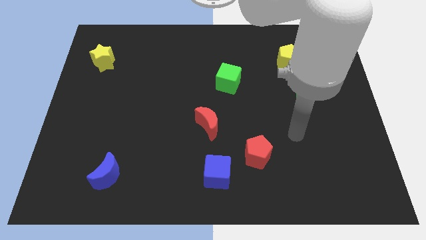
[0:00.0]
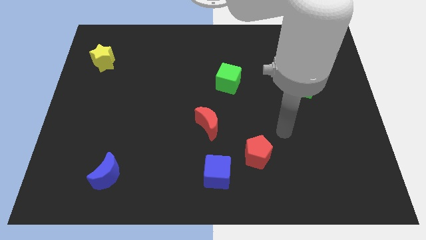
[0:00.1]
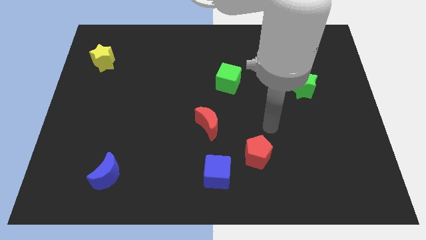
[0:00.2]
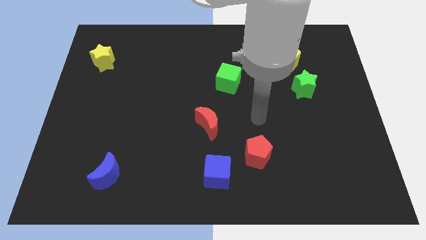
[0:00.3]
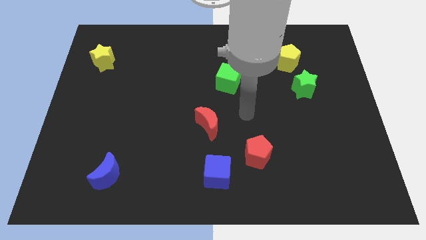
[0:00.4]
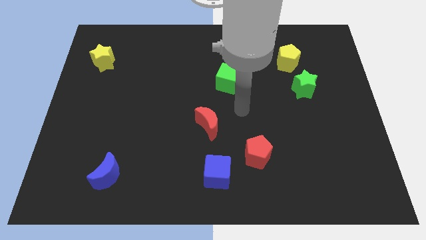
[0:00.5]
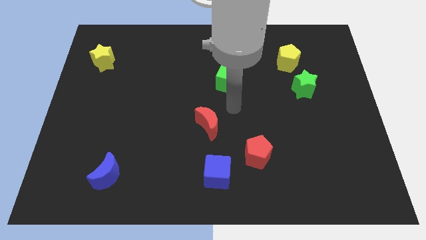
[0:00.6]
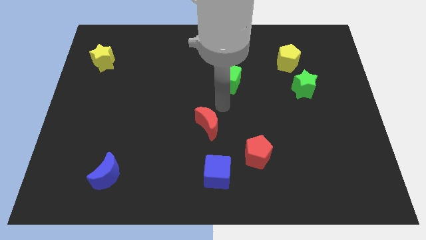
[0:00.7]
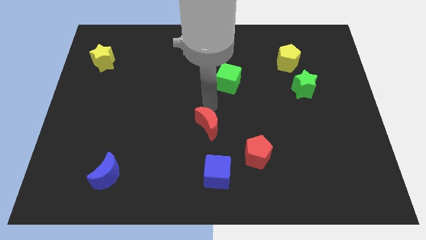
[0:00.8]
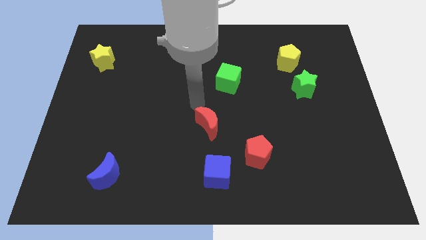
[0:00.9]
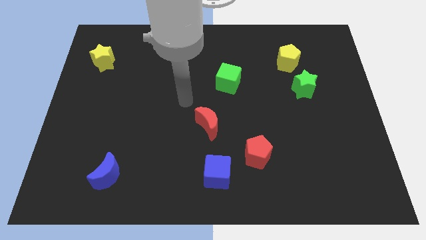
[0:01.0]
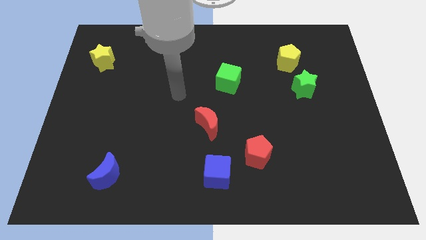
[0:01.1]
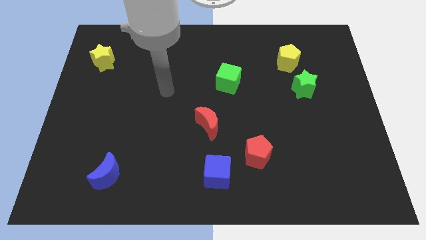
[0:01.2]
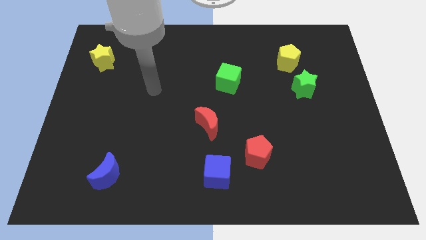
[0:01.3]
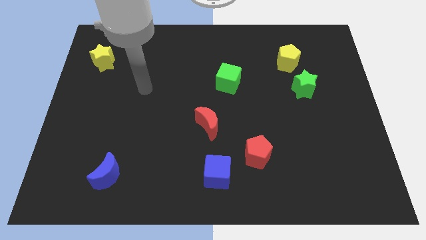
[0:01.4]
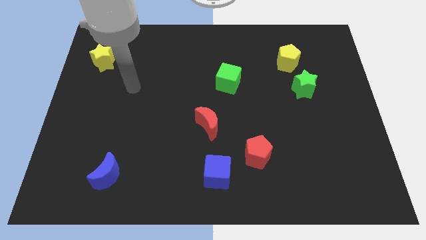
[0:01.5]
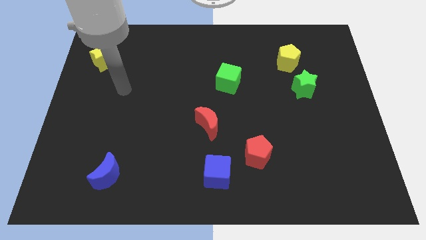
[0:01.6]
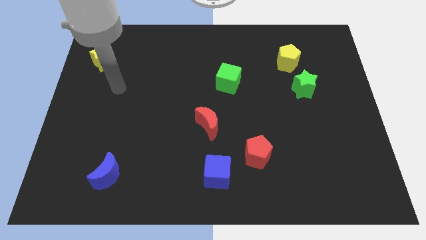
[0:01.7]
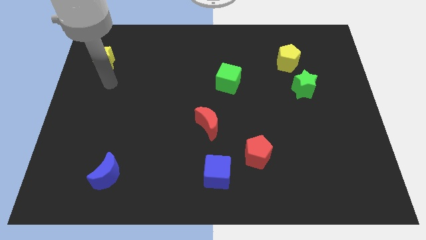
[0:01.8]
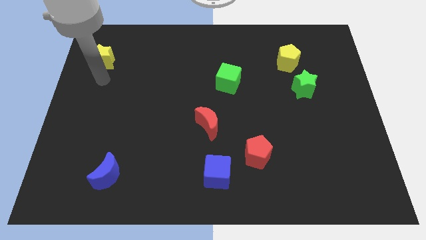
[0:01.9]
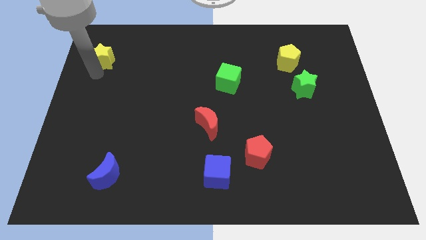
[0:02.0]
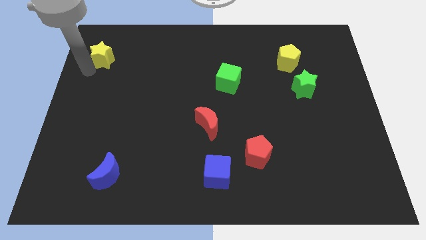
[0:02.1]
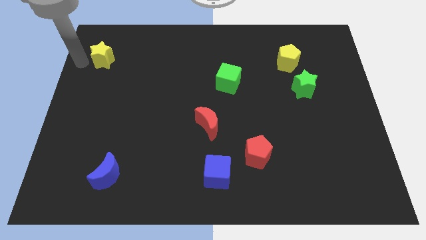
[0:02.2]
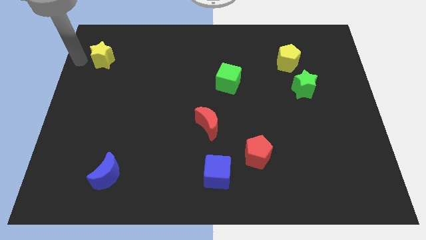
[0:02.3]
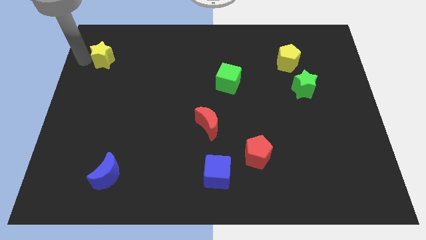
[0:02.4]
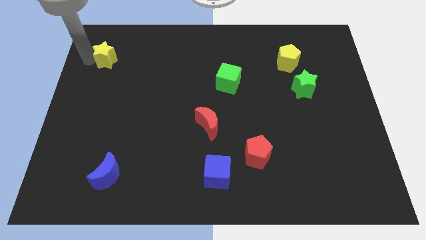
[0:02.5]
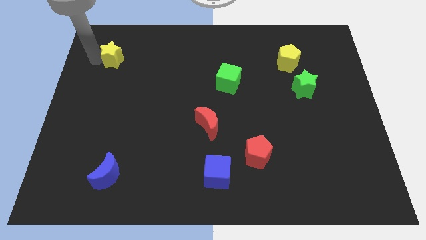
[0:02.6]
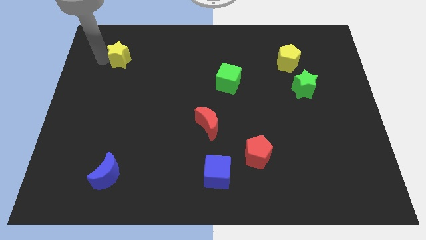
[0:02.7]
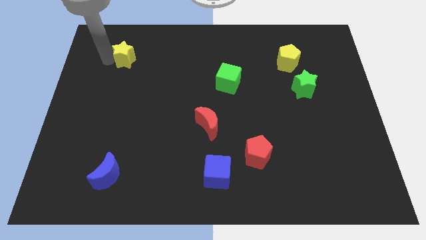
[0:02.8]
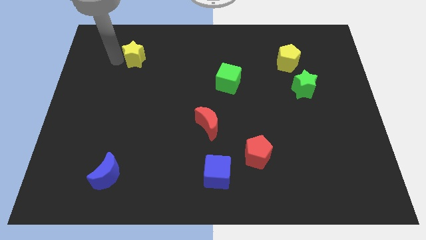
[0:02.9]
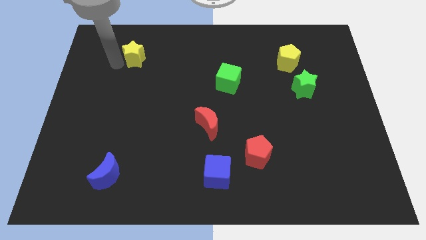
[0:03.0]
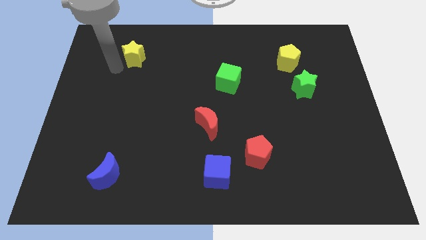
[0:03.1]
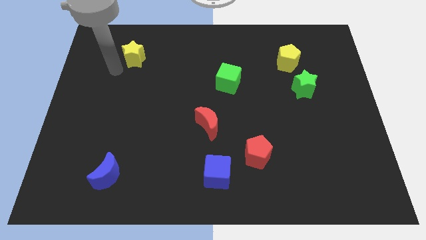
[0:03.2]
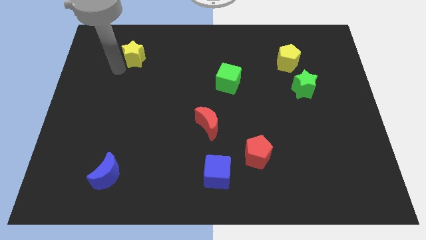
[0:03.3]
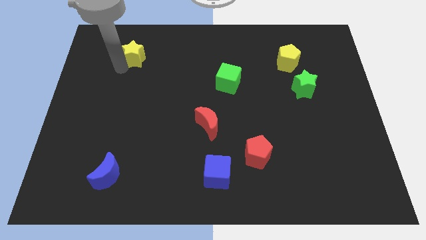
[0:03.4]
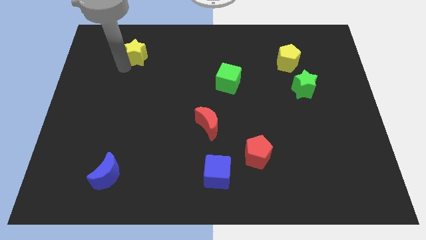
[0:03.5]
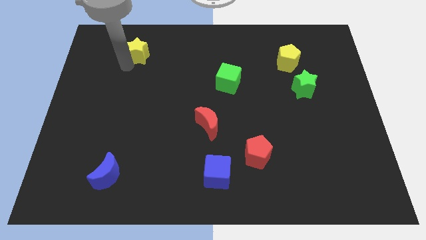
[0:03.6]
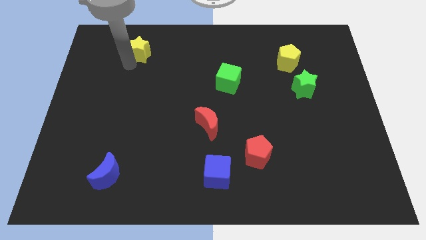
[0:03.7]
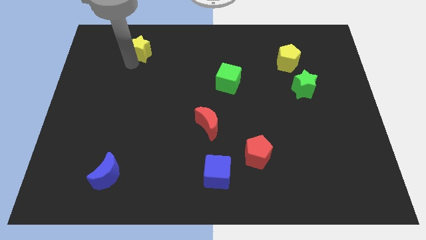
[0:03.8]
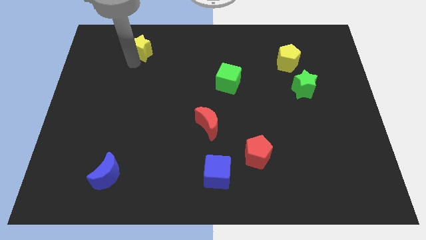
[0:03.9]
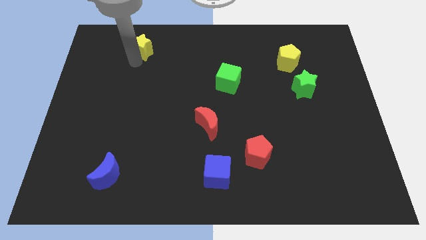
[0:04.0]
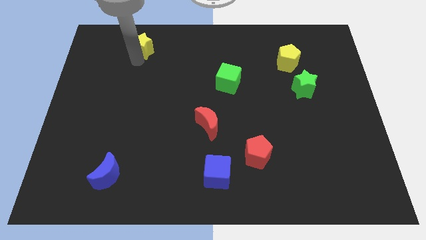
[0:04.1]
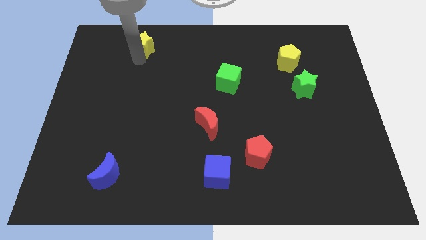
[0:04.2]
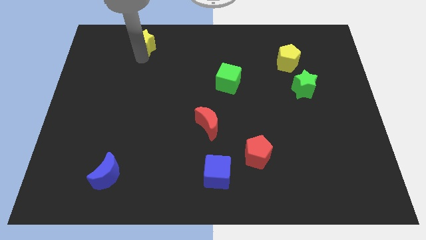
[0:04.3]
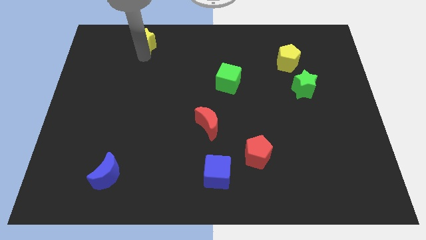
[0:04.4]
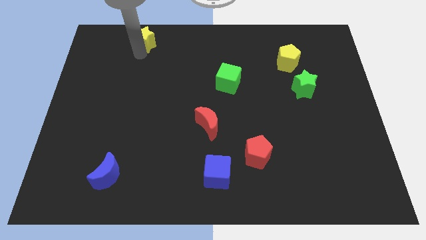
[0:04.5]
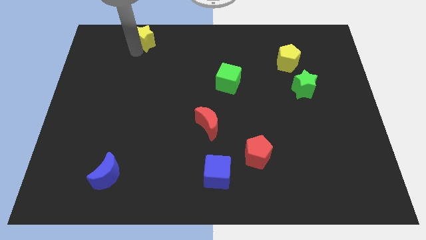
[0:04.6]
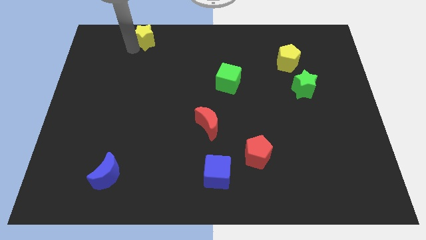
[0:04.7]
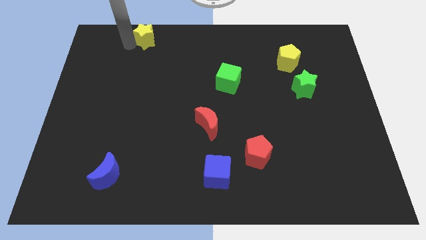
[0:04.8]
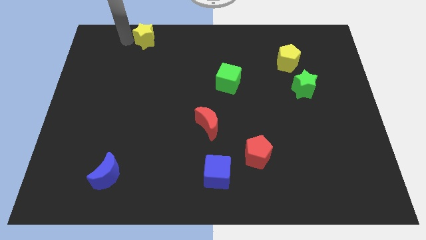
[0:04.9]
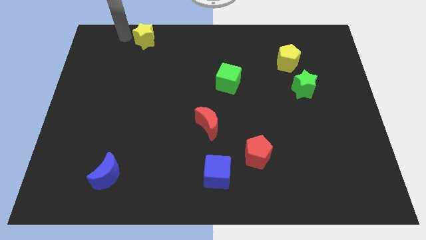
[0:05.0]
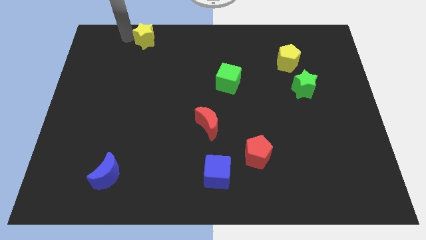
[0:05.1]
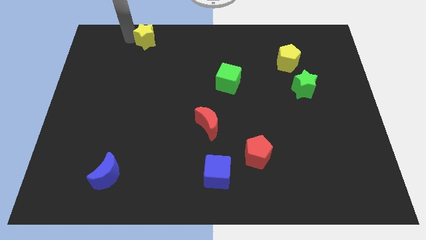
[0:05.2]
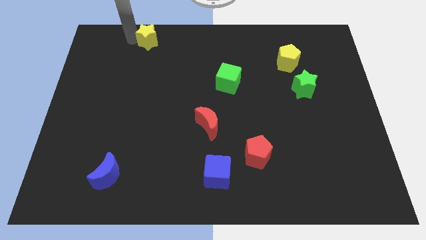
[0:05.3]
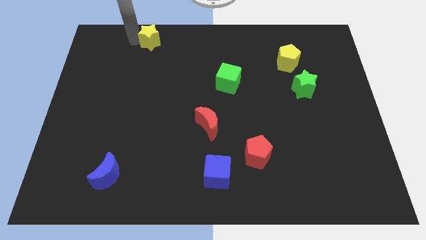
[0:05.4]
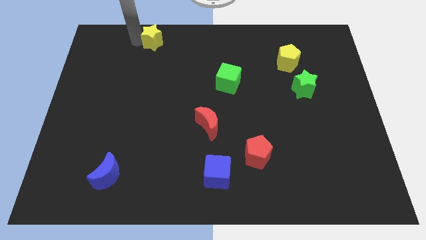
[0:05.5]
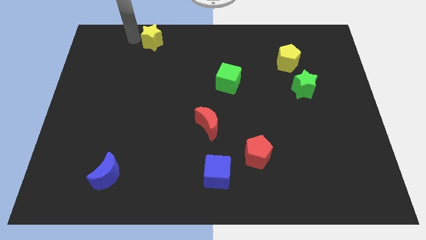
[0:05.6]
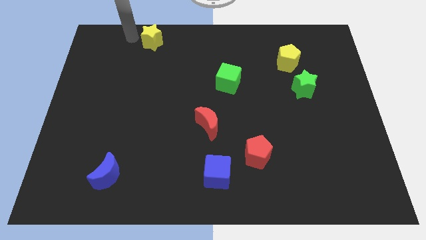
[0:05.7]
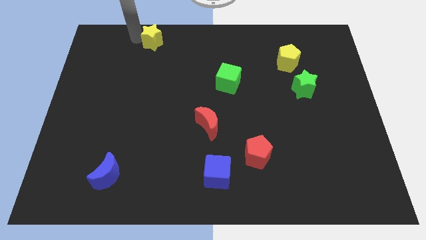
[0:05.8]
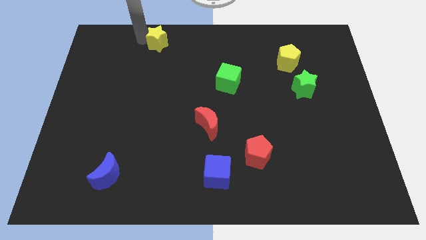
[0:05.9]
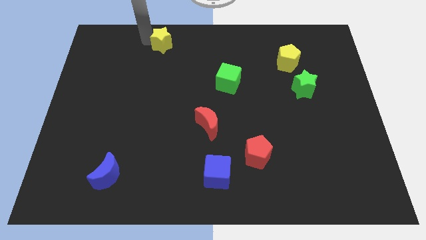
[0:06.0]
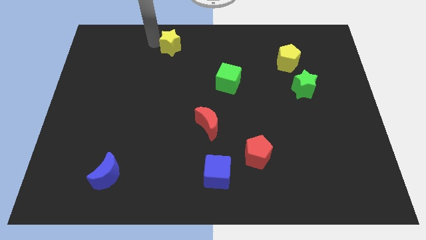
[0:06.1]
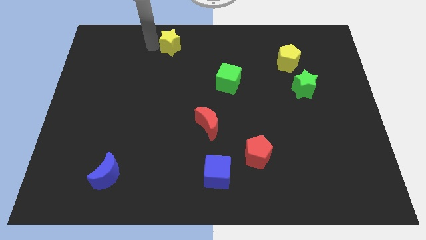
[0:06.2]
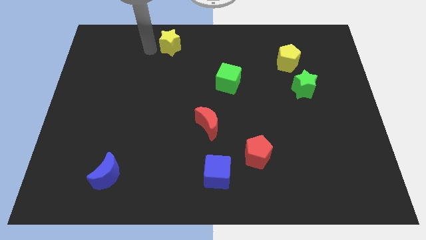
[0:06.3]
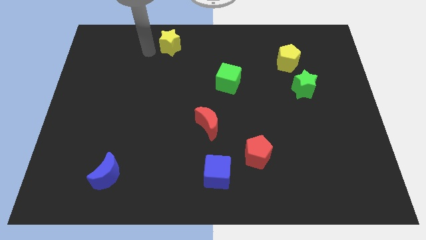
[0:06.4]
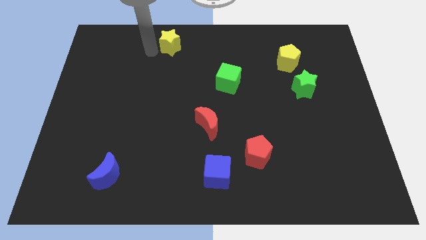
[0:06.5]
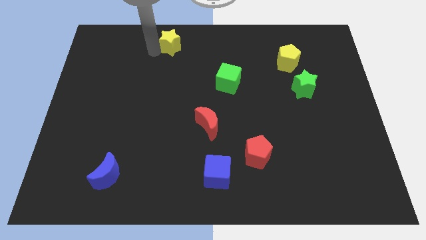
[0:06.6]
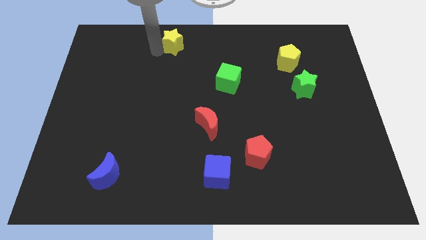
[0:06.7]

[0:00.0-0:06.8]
move the yellow star to the top
